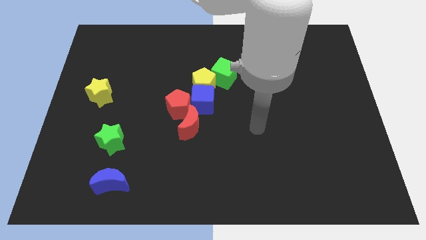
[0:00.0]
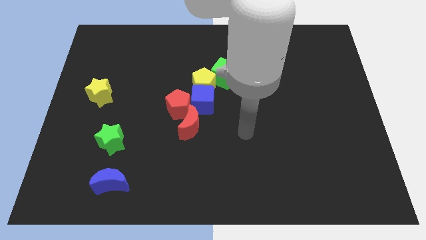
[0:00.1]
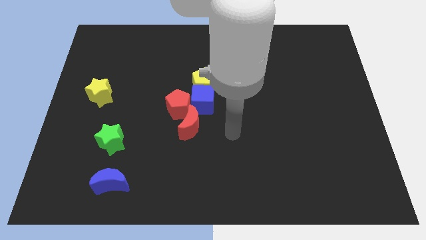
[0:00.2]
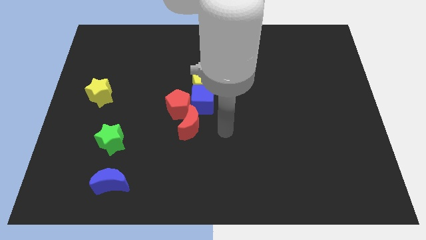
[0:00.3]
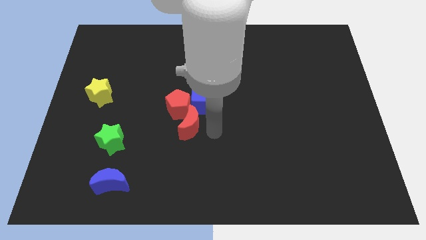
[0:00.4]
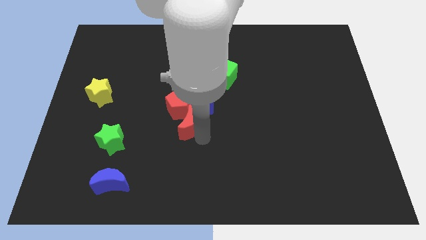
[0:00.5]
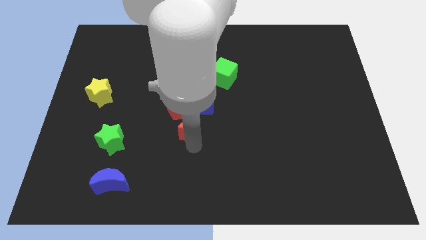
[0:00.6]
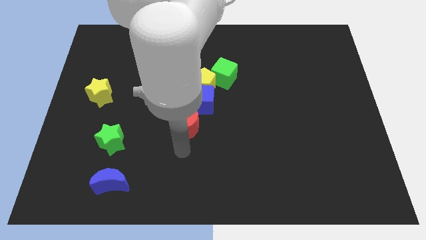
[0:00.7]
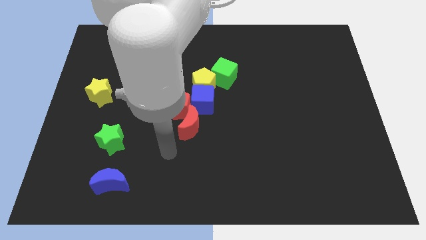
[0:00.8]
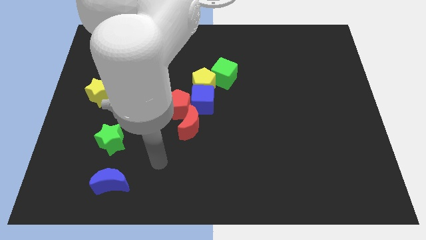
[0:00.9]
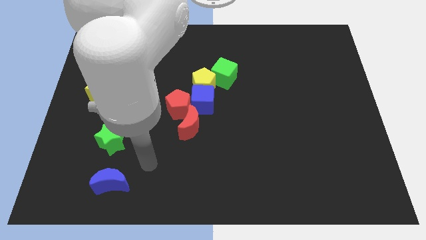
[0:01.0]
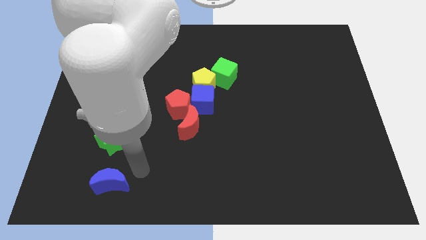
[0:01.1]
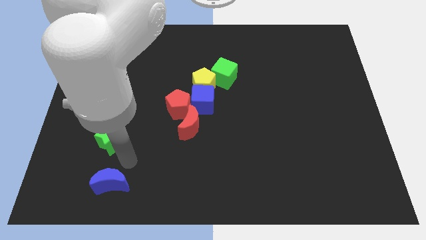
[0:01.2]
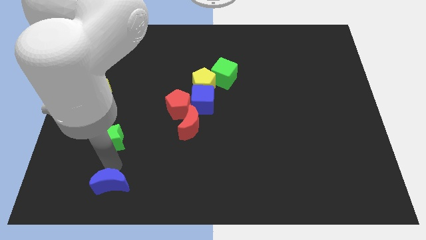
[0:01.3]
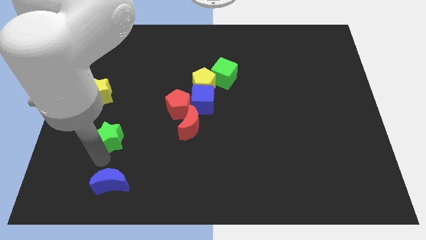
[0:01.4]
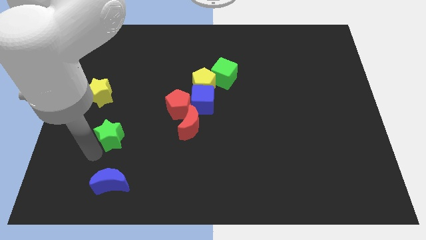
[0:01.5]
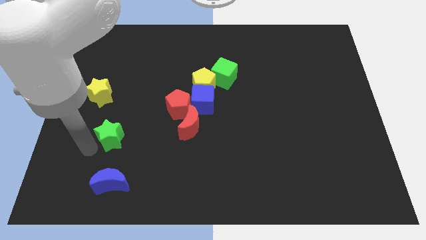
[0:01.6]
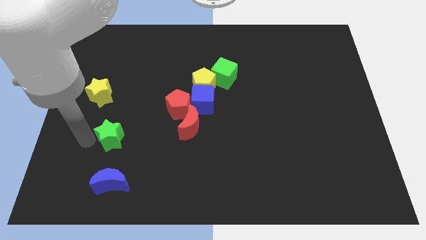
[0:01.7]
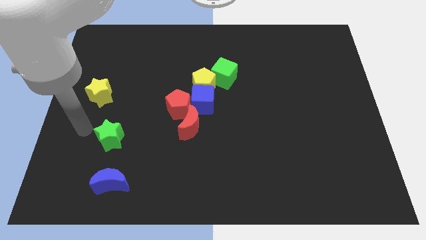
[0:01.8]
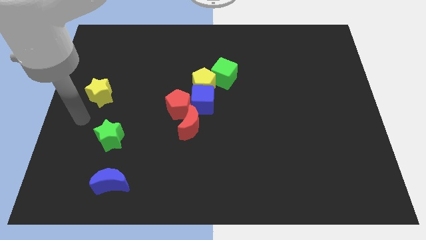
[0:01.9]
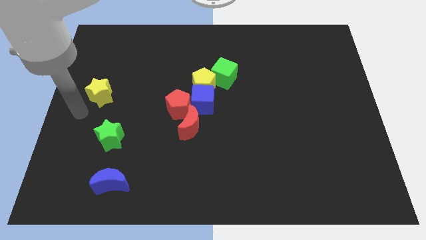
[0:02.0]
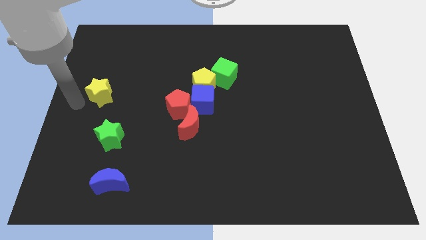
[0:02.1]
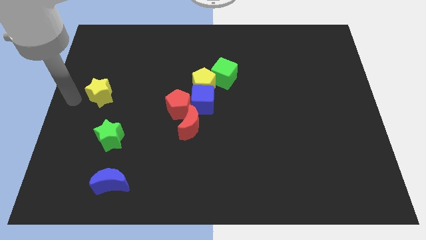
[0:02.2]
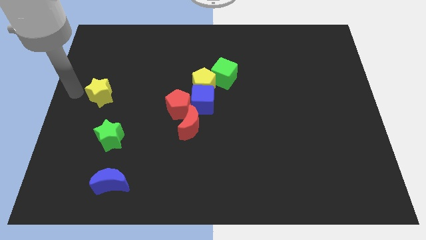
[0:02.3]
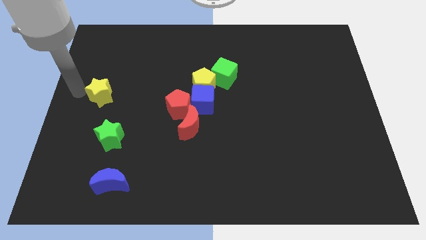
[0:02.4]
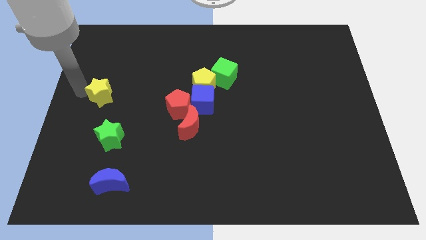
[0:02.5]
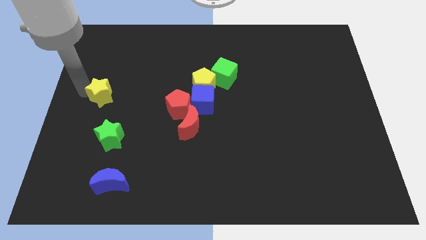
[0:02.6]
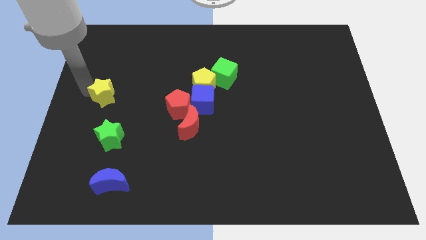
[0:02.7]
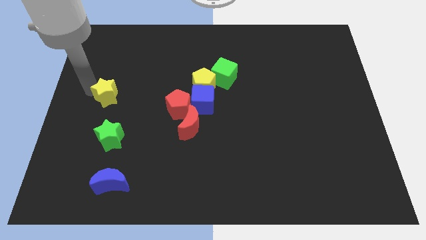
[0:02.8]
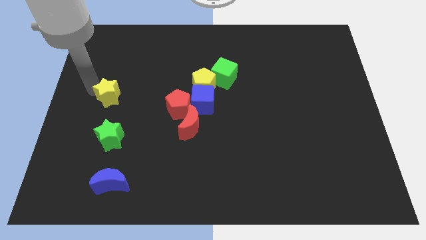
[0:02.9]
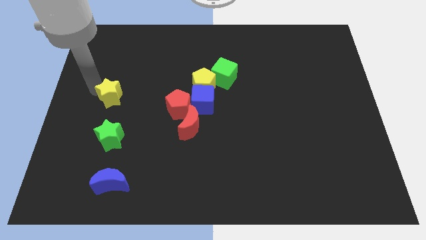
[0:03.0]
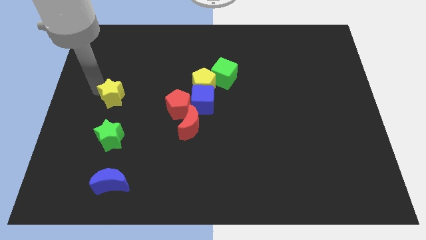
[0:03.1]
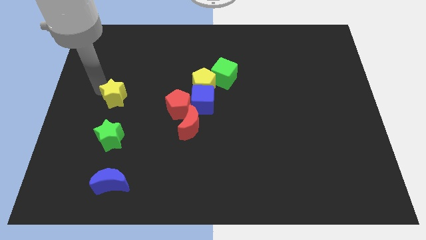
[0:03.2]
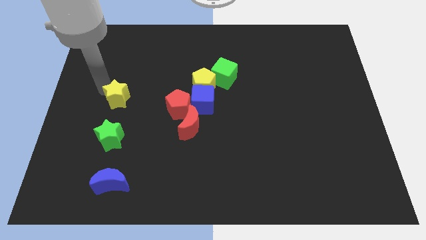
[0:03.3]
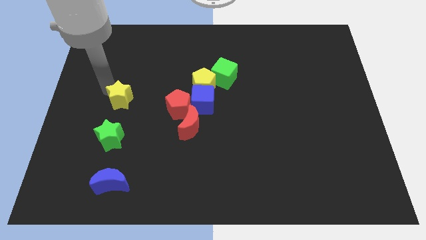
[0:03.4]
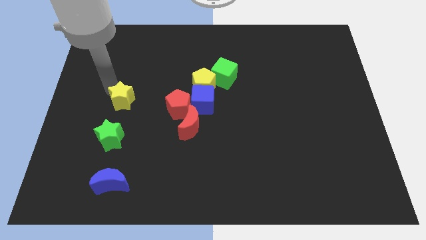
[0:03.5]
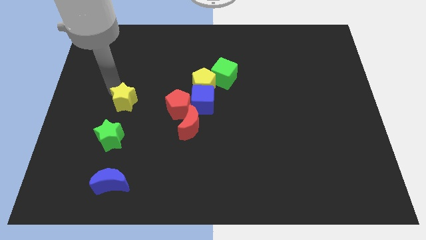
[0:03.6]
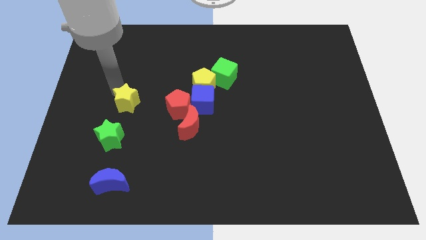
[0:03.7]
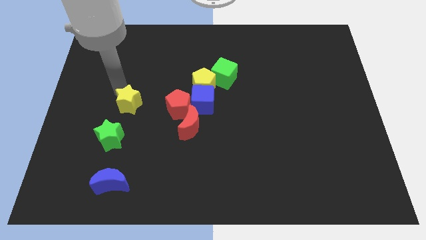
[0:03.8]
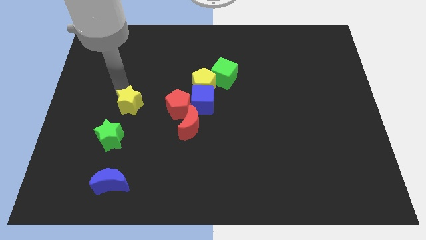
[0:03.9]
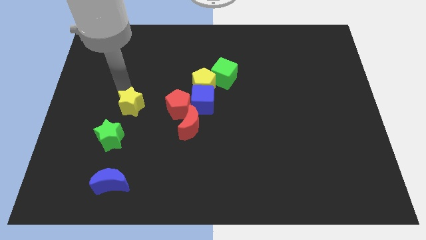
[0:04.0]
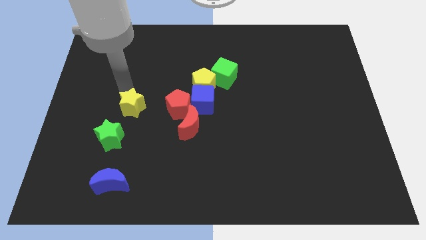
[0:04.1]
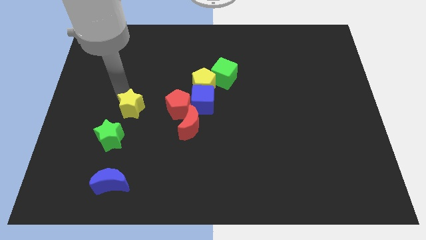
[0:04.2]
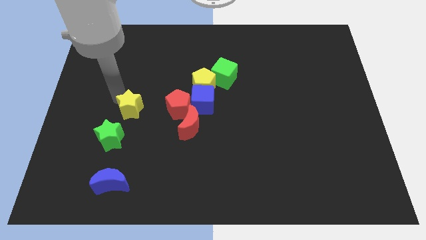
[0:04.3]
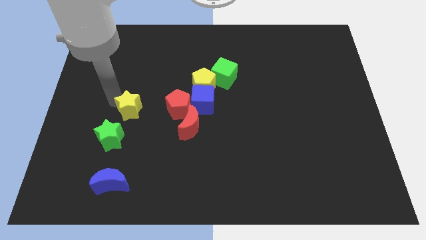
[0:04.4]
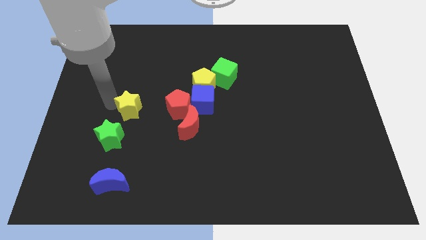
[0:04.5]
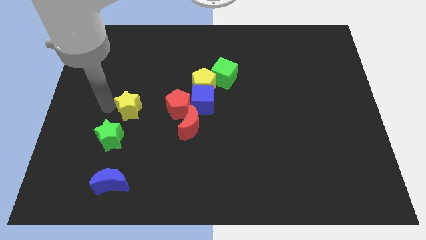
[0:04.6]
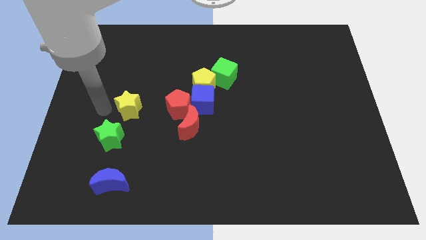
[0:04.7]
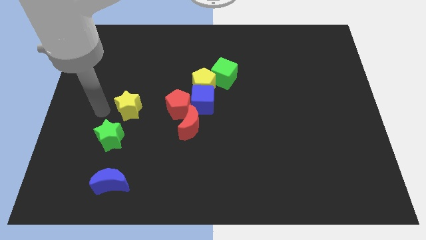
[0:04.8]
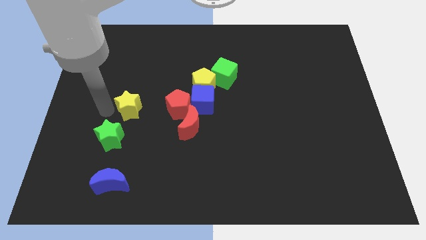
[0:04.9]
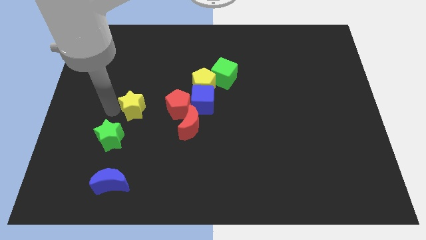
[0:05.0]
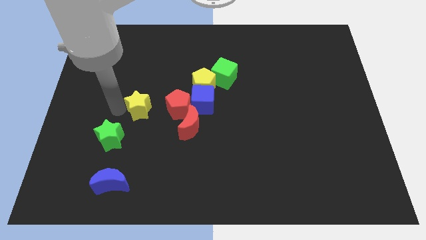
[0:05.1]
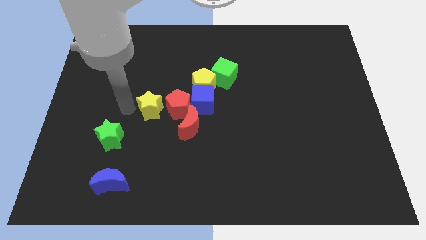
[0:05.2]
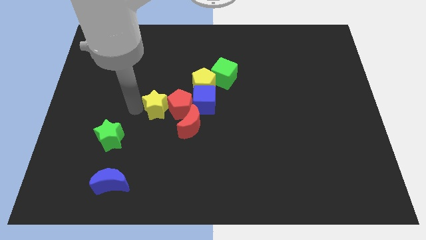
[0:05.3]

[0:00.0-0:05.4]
push the yellow star to the red pentagon

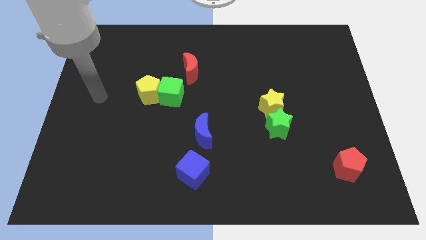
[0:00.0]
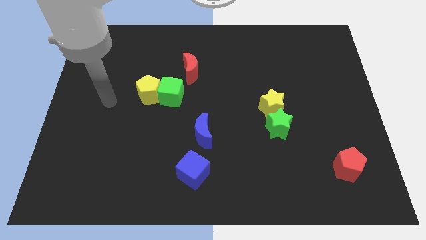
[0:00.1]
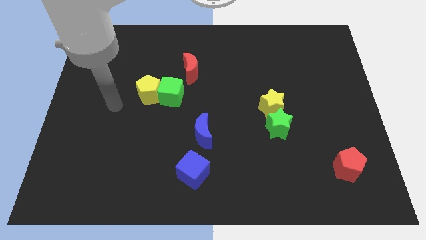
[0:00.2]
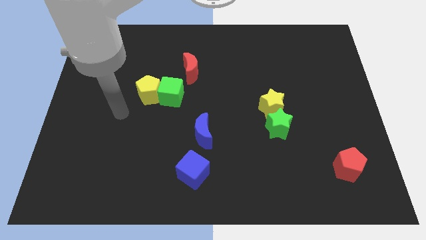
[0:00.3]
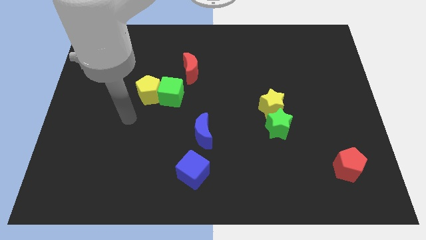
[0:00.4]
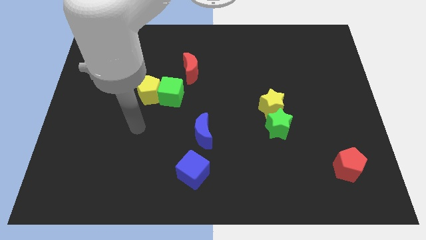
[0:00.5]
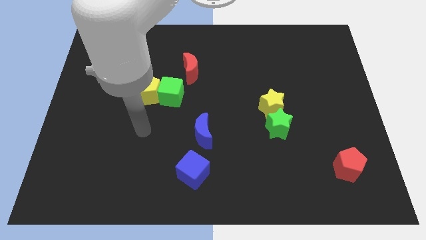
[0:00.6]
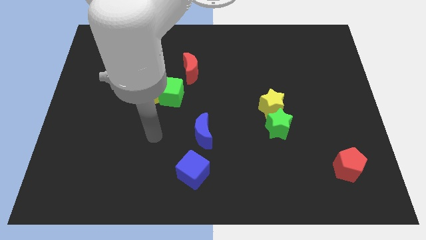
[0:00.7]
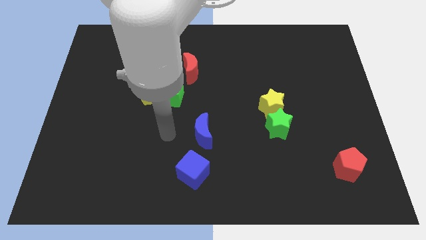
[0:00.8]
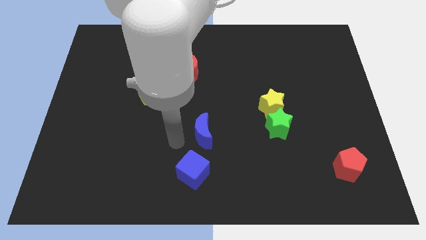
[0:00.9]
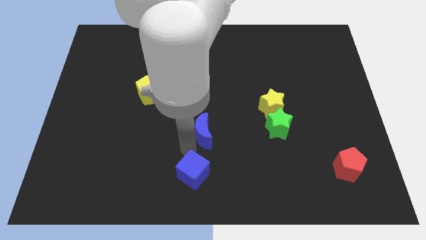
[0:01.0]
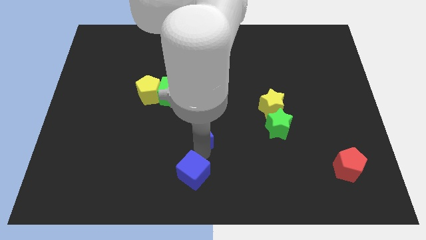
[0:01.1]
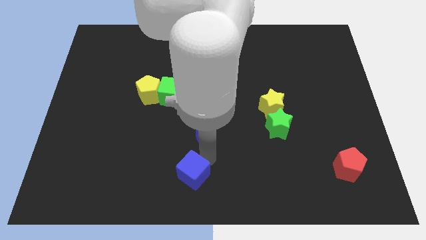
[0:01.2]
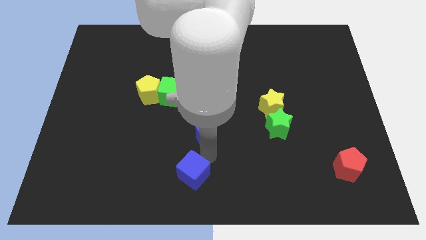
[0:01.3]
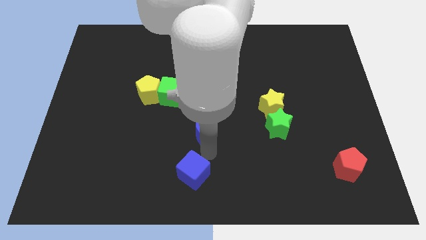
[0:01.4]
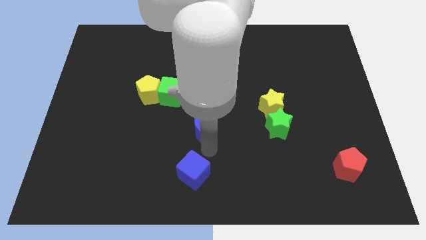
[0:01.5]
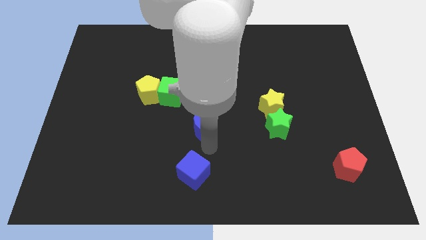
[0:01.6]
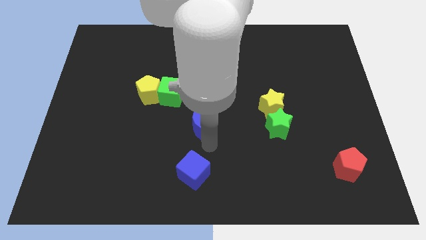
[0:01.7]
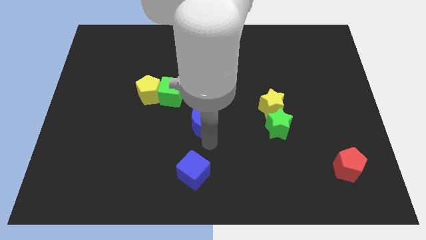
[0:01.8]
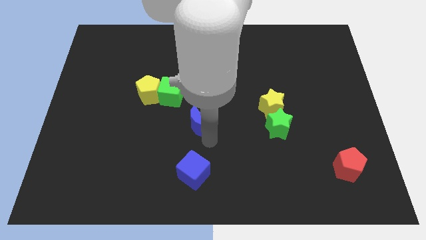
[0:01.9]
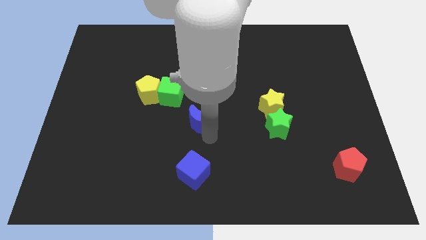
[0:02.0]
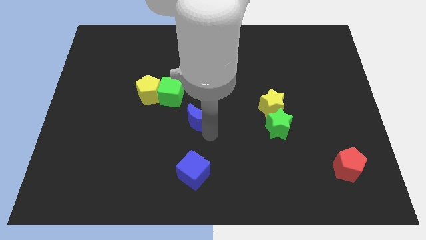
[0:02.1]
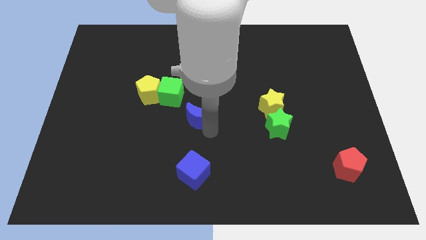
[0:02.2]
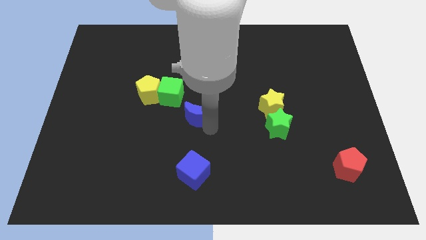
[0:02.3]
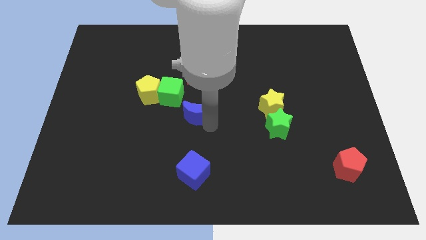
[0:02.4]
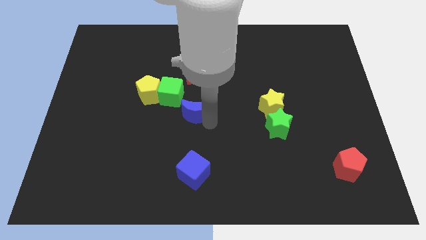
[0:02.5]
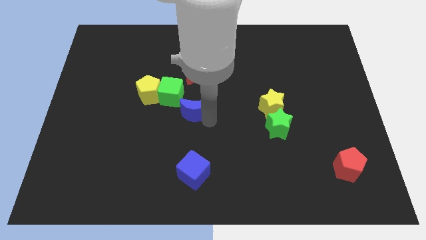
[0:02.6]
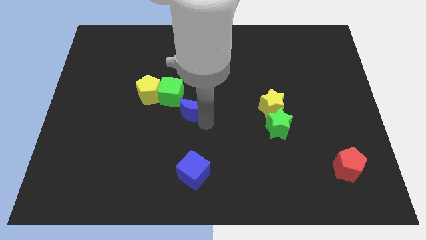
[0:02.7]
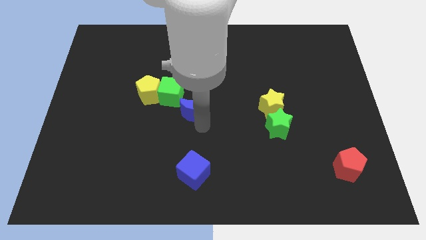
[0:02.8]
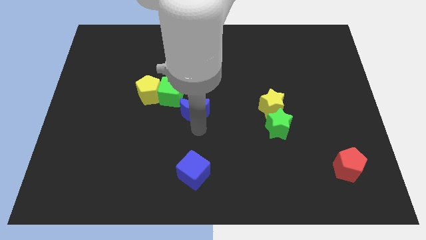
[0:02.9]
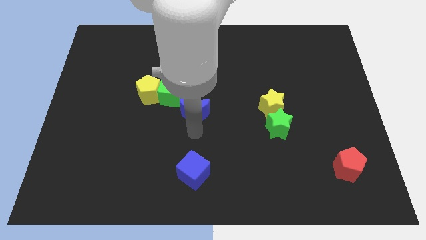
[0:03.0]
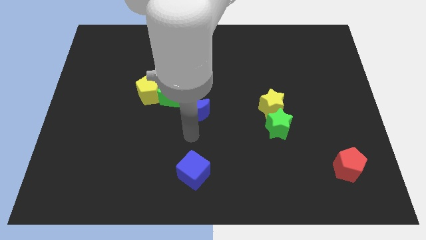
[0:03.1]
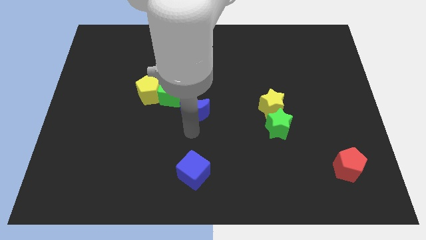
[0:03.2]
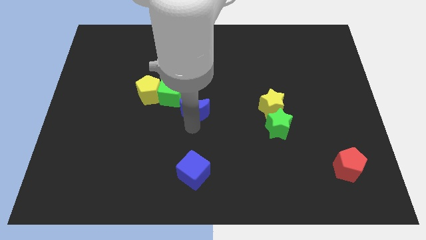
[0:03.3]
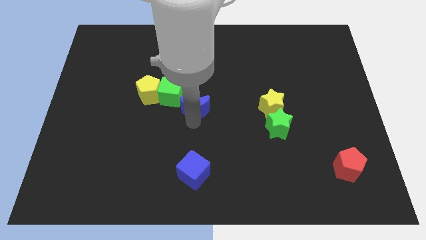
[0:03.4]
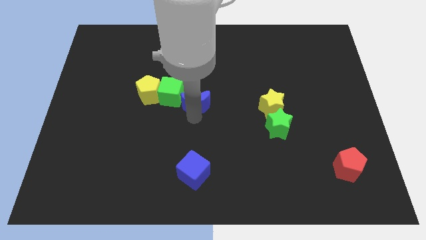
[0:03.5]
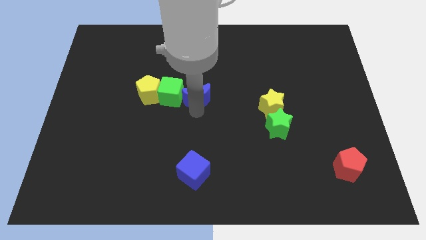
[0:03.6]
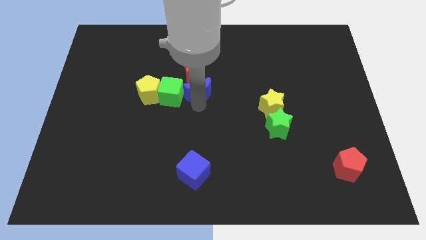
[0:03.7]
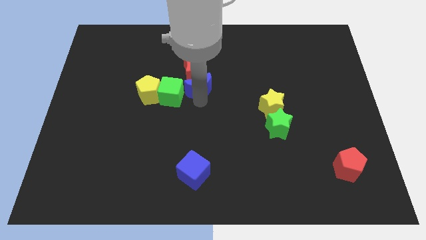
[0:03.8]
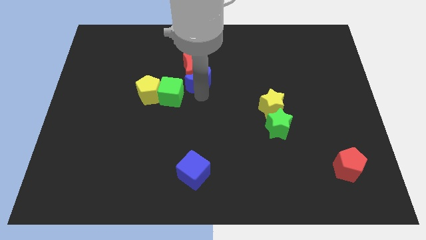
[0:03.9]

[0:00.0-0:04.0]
push the blue moon close to the red moon
